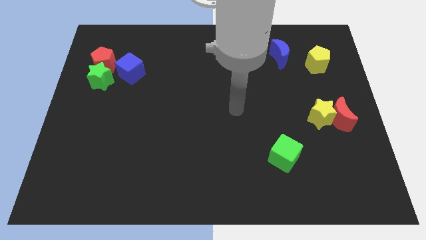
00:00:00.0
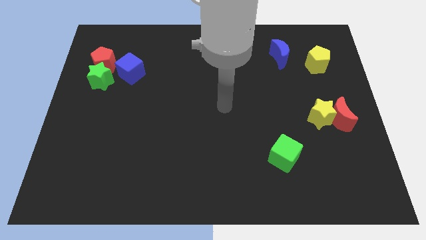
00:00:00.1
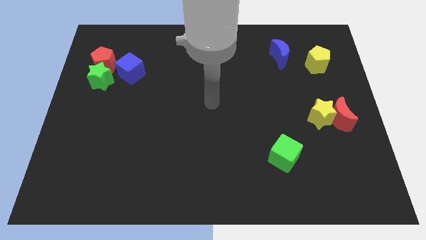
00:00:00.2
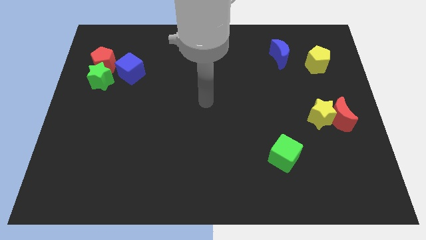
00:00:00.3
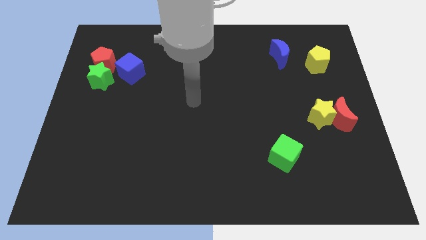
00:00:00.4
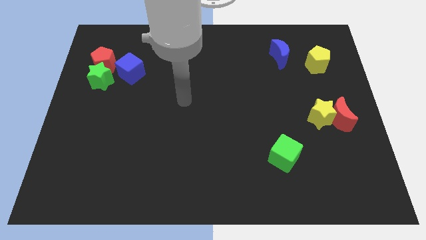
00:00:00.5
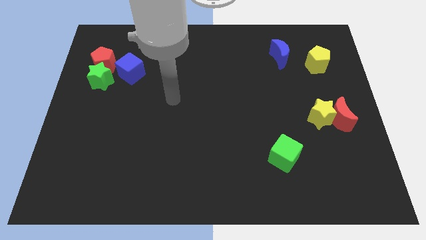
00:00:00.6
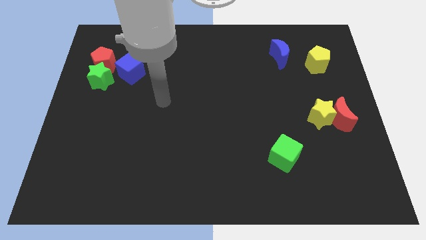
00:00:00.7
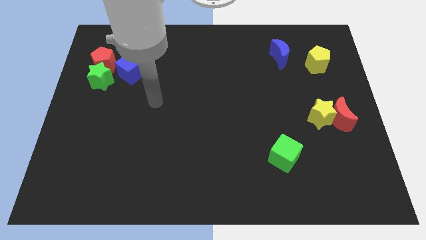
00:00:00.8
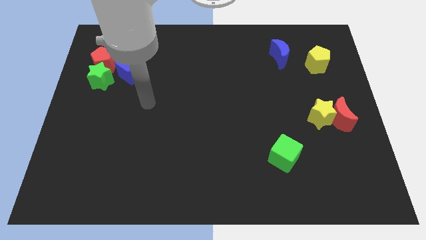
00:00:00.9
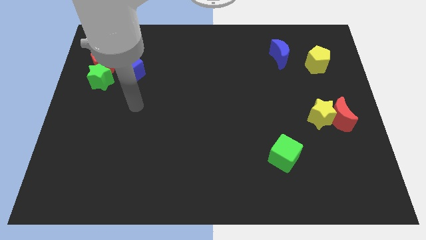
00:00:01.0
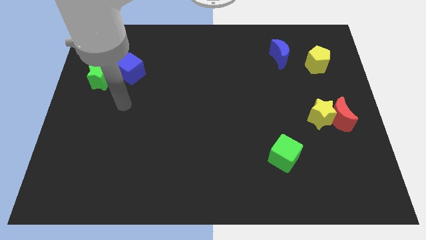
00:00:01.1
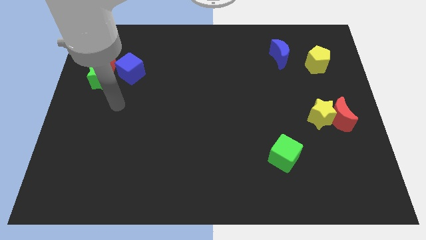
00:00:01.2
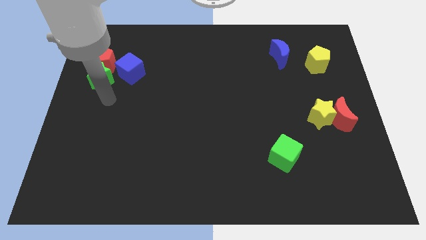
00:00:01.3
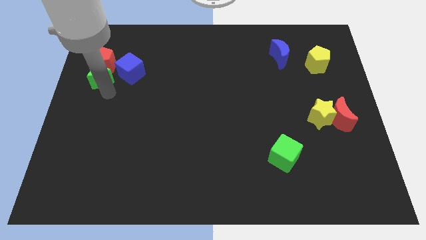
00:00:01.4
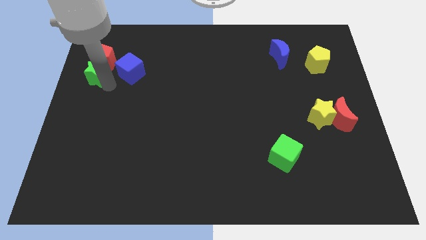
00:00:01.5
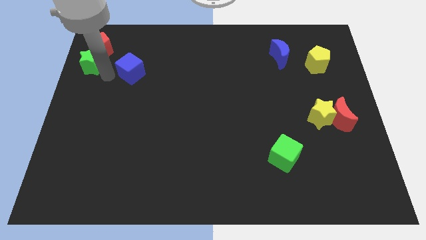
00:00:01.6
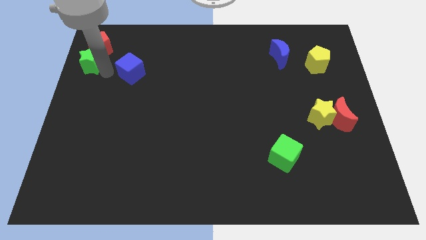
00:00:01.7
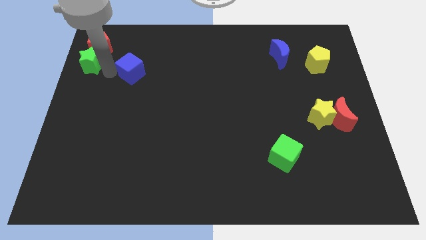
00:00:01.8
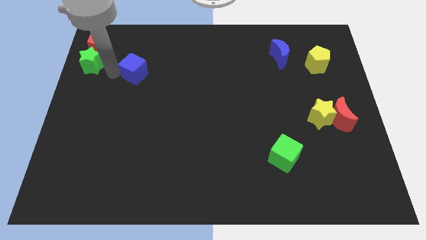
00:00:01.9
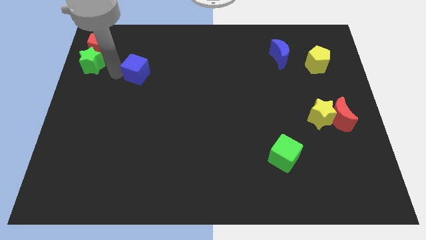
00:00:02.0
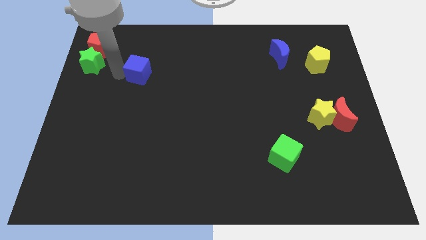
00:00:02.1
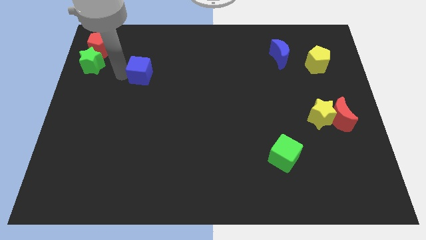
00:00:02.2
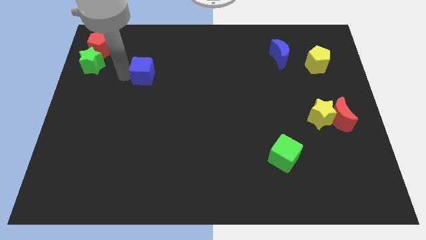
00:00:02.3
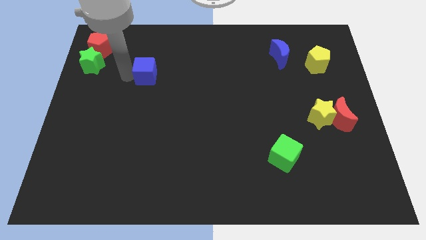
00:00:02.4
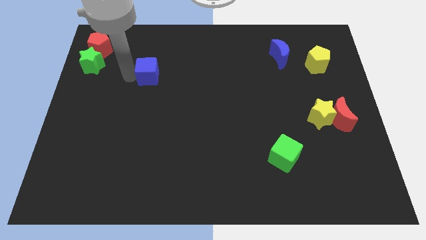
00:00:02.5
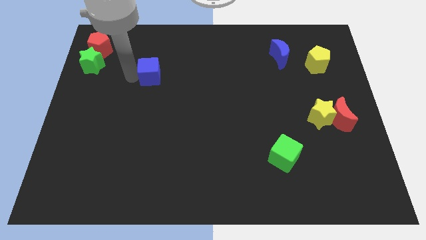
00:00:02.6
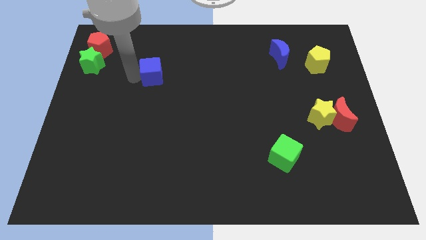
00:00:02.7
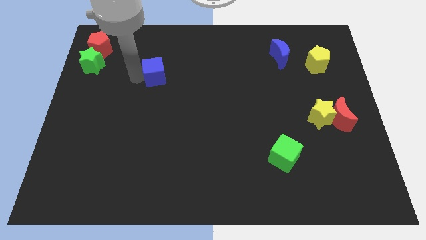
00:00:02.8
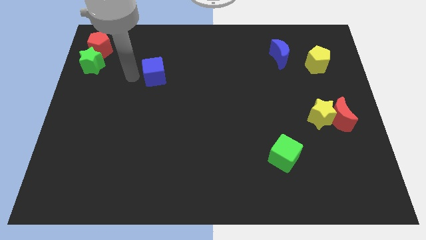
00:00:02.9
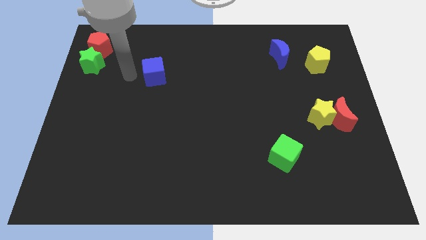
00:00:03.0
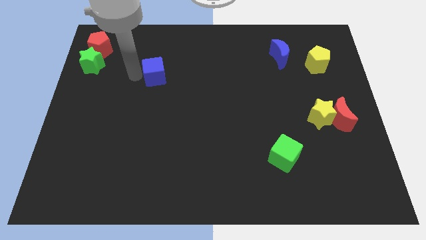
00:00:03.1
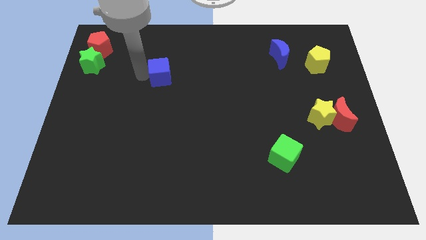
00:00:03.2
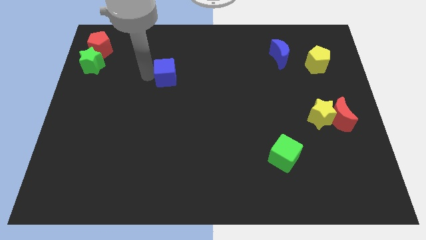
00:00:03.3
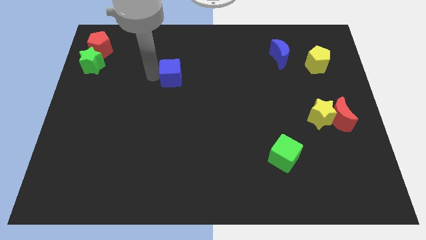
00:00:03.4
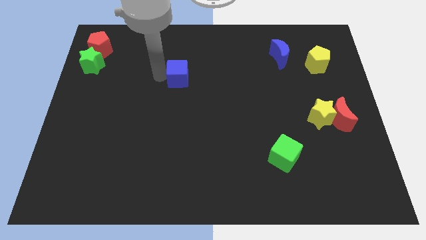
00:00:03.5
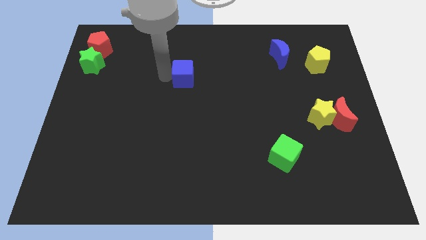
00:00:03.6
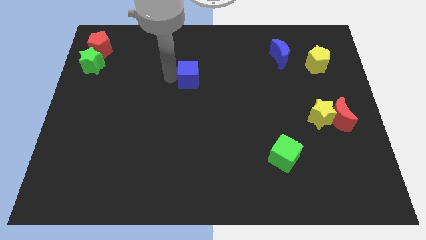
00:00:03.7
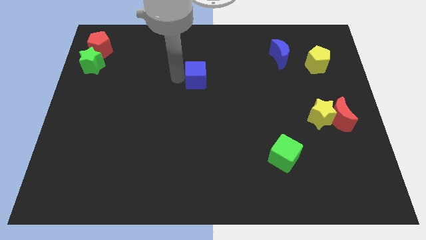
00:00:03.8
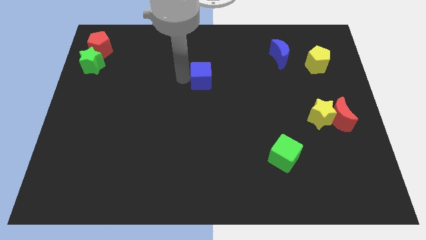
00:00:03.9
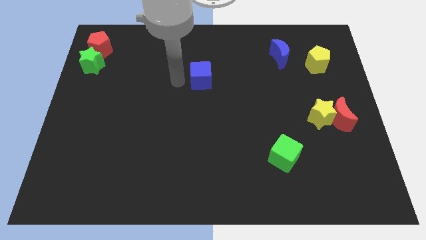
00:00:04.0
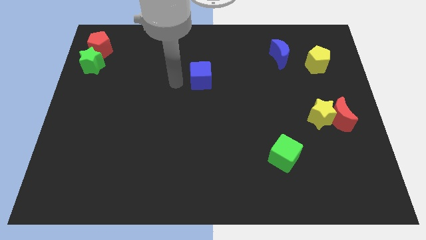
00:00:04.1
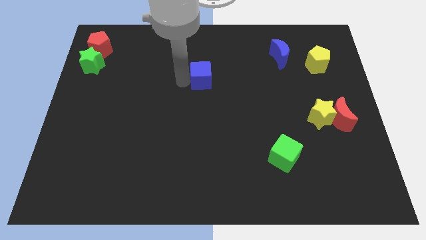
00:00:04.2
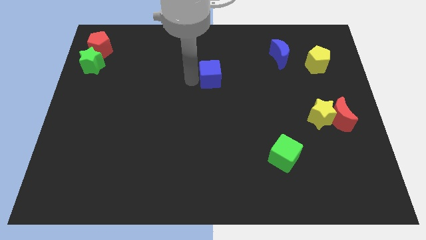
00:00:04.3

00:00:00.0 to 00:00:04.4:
slide the blue cube to the right

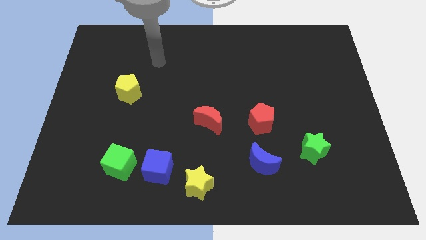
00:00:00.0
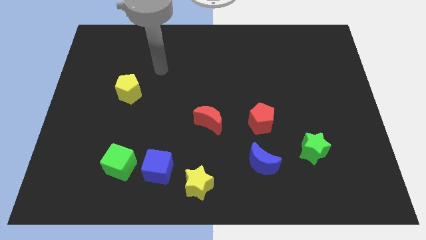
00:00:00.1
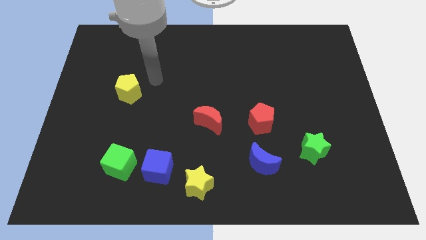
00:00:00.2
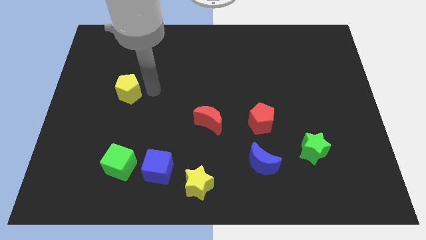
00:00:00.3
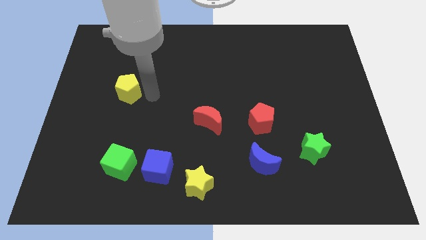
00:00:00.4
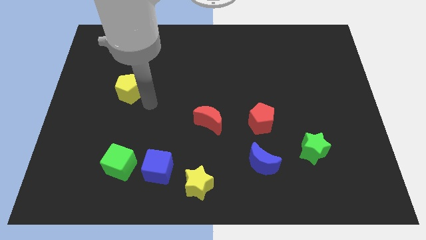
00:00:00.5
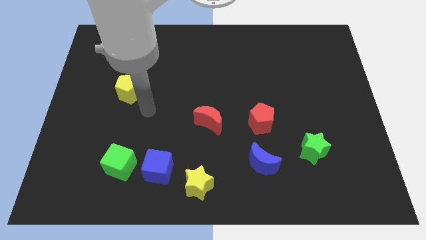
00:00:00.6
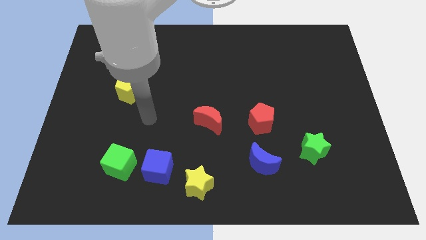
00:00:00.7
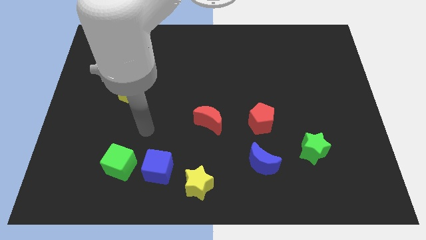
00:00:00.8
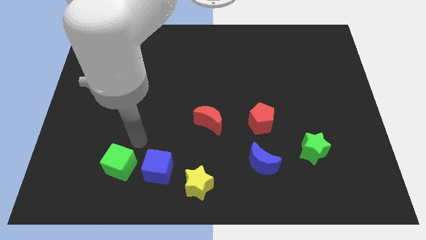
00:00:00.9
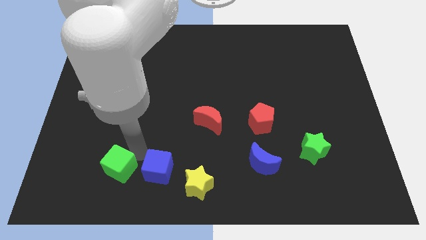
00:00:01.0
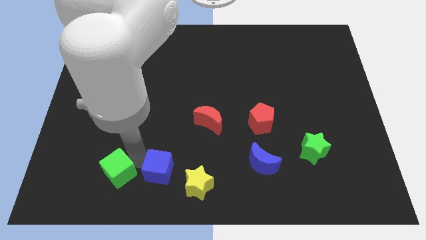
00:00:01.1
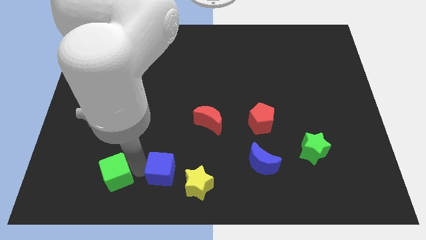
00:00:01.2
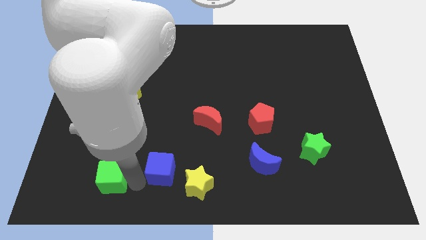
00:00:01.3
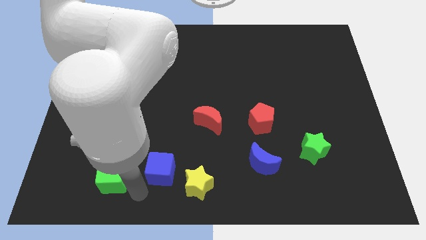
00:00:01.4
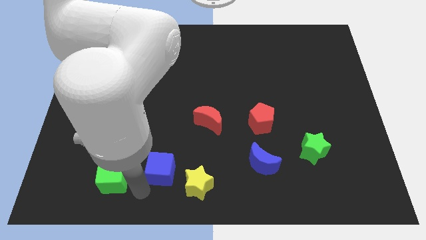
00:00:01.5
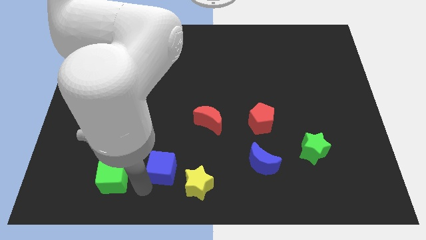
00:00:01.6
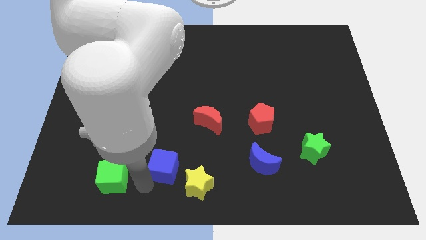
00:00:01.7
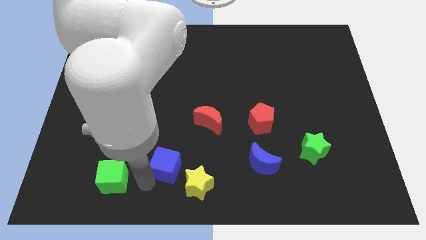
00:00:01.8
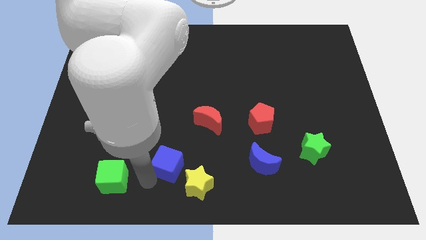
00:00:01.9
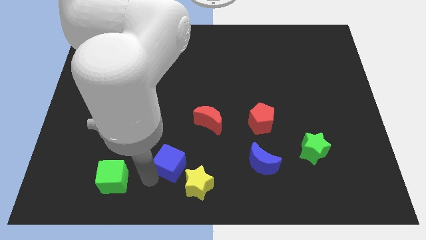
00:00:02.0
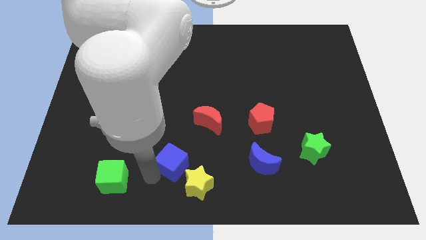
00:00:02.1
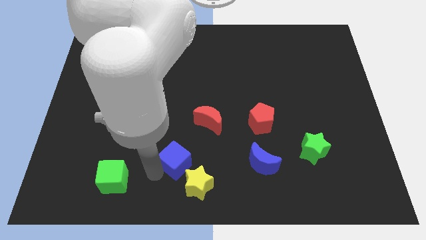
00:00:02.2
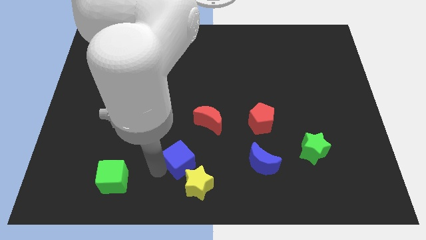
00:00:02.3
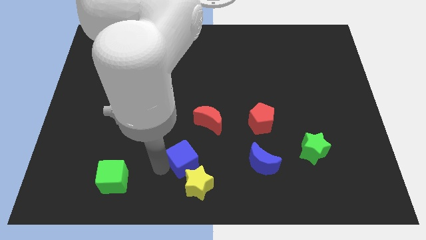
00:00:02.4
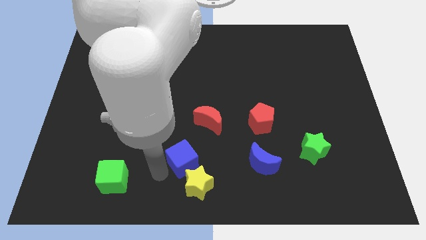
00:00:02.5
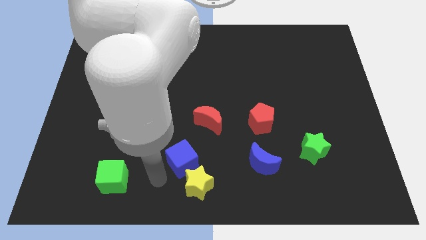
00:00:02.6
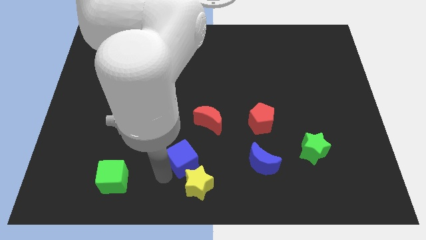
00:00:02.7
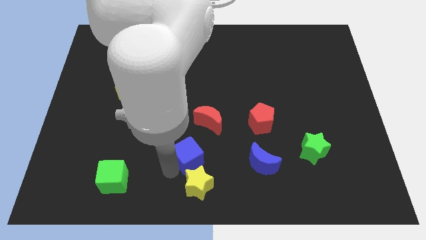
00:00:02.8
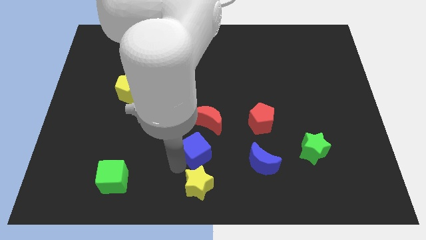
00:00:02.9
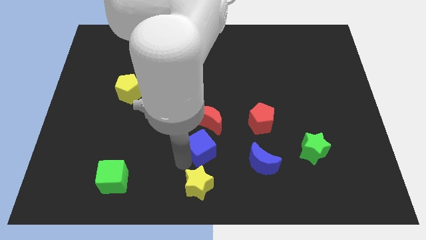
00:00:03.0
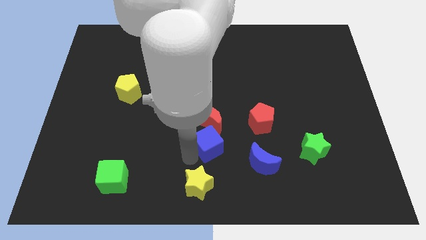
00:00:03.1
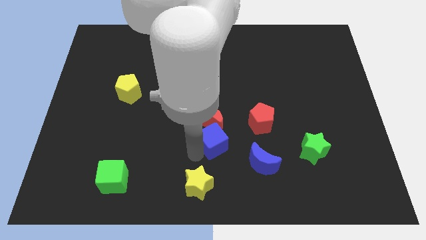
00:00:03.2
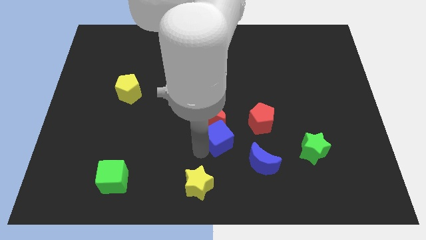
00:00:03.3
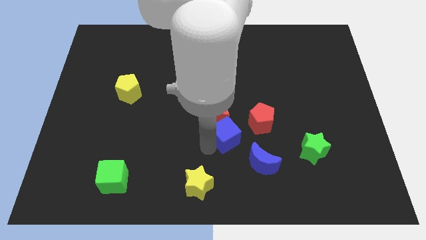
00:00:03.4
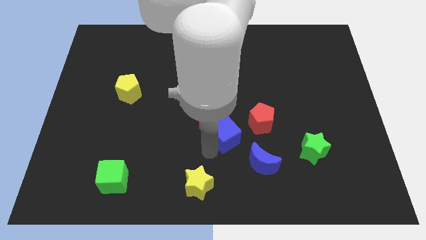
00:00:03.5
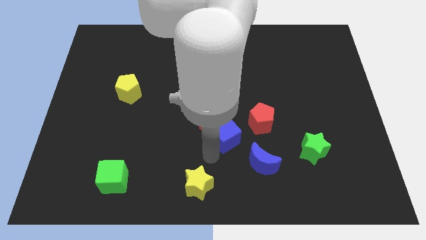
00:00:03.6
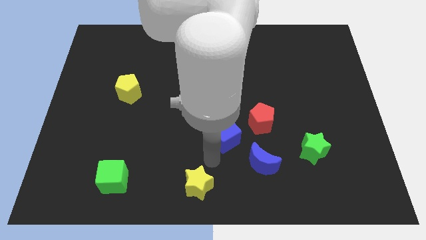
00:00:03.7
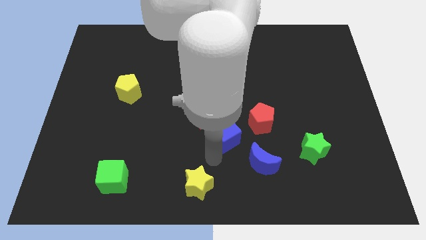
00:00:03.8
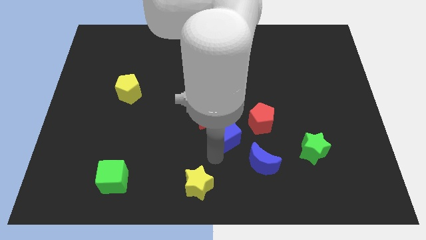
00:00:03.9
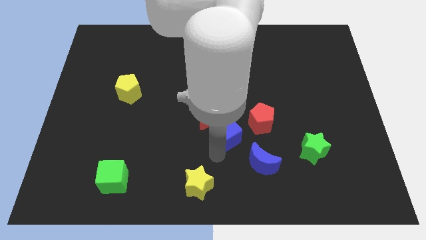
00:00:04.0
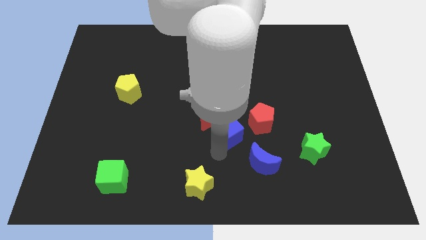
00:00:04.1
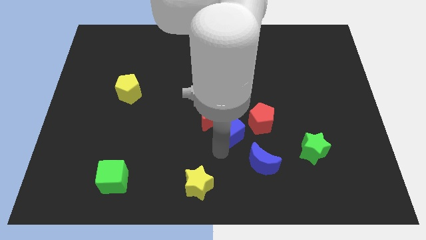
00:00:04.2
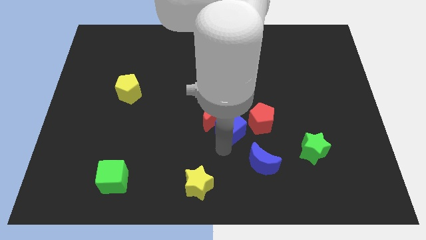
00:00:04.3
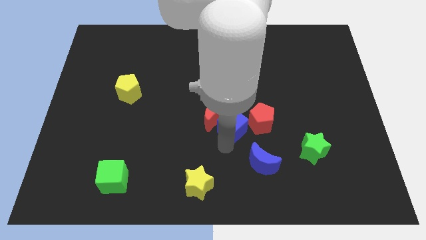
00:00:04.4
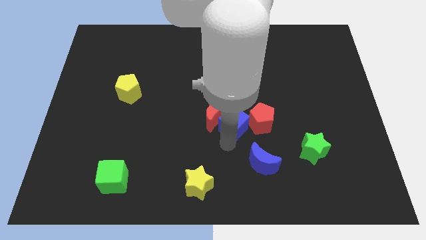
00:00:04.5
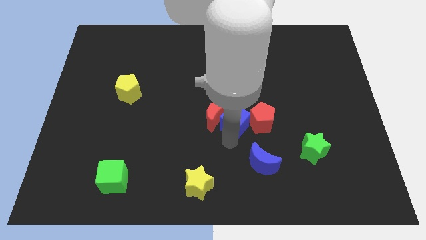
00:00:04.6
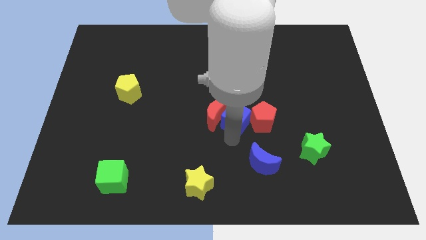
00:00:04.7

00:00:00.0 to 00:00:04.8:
slide the blue cube upwards and to the right
